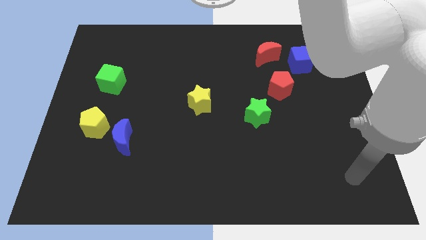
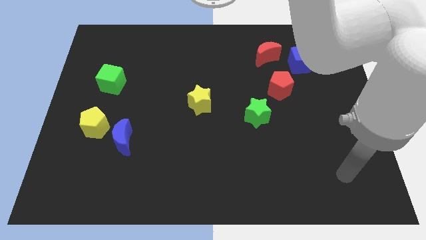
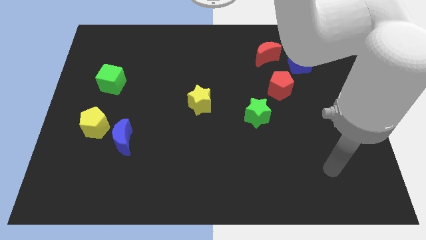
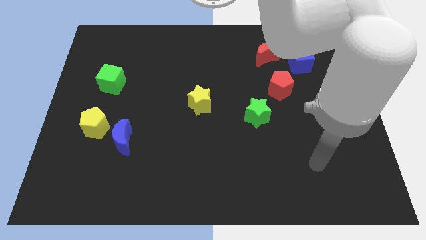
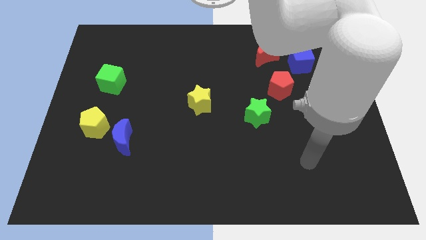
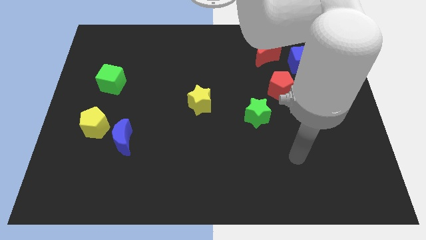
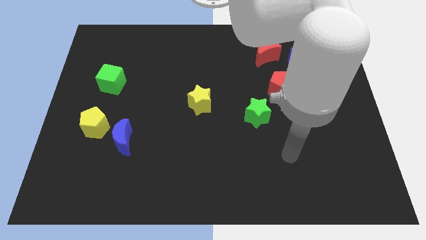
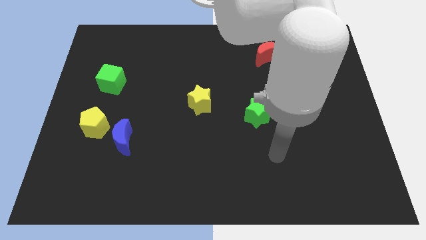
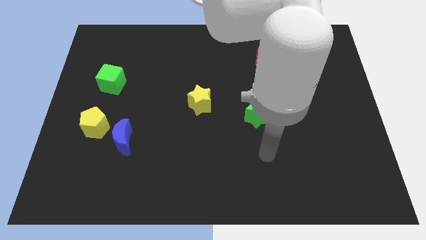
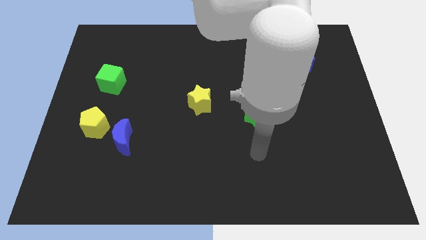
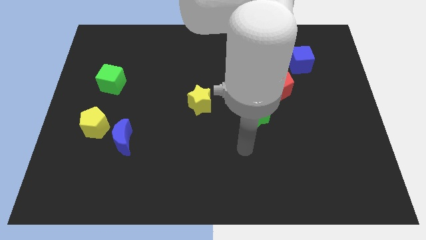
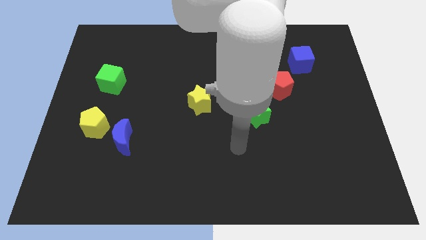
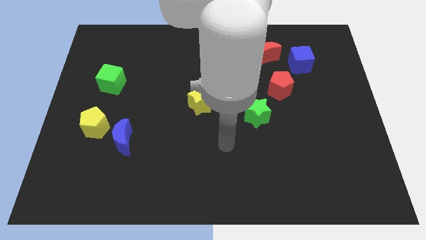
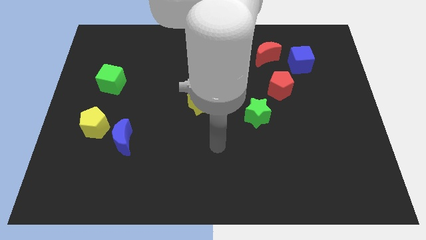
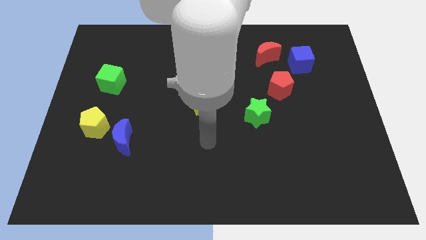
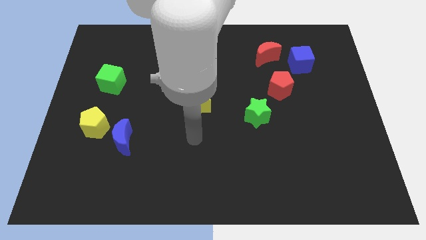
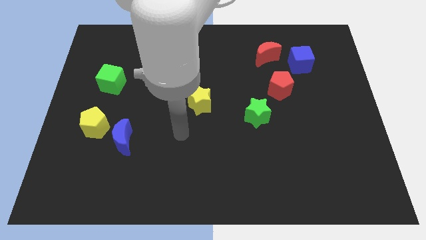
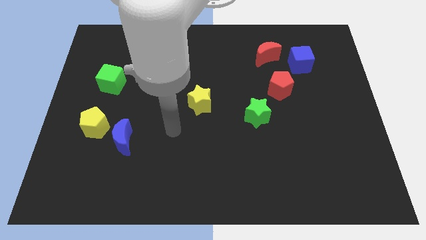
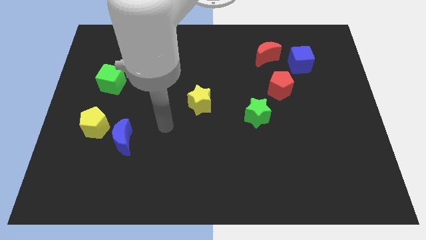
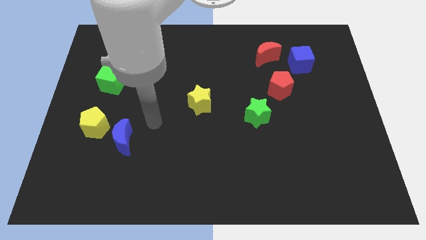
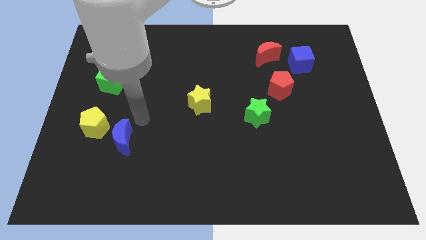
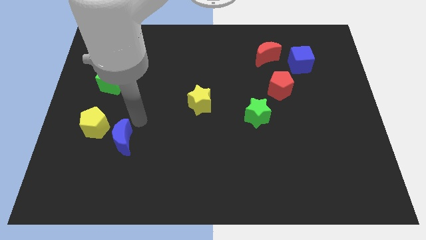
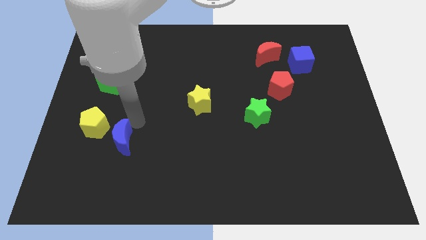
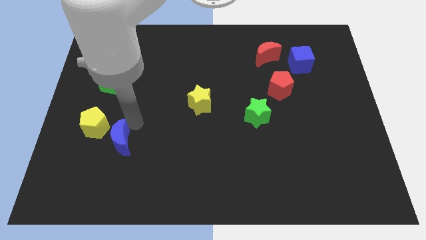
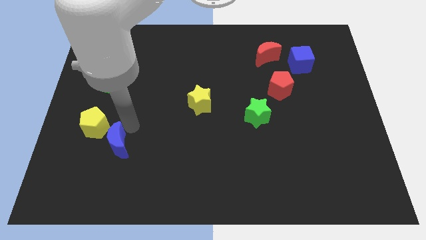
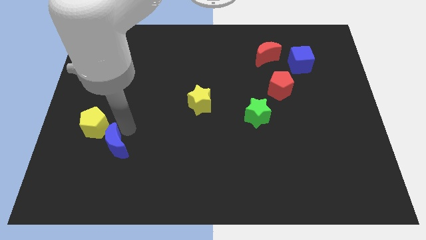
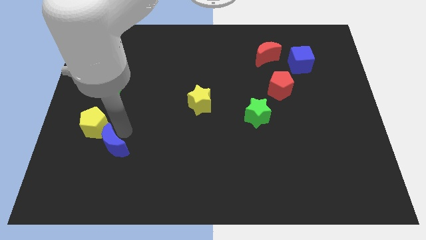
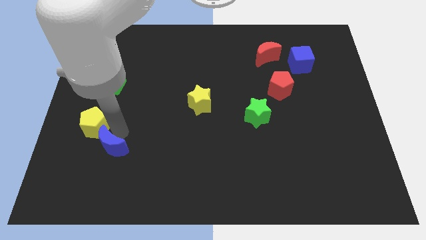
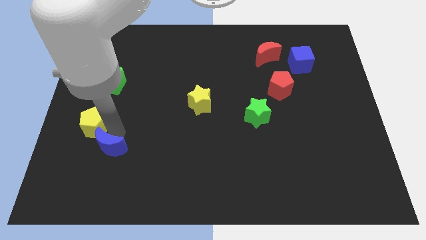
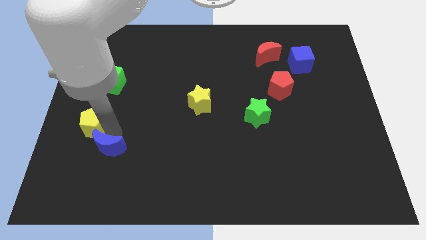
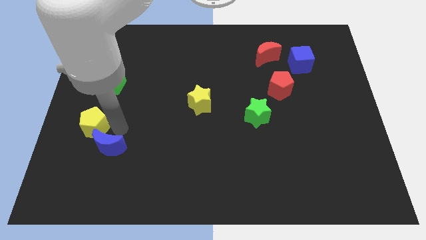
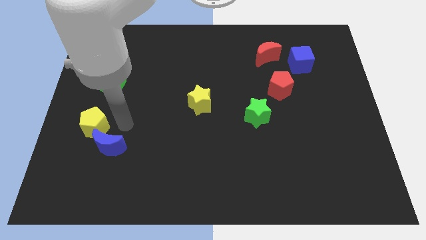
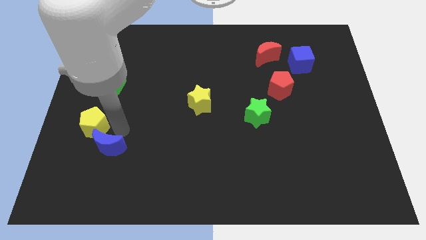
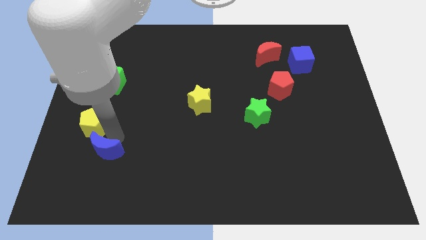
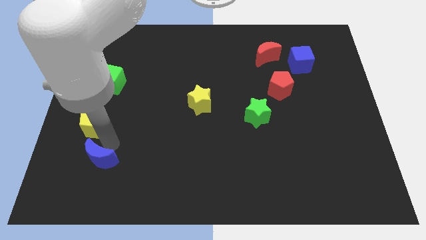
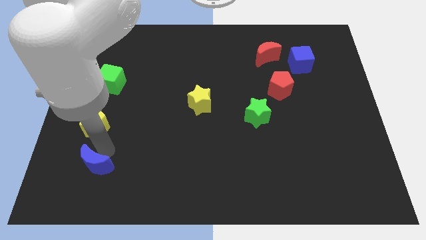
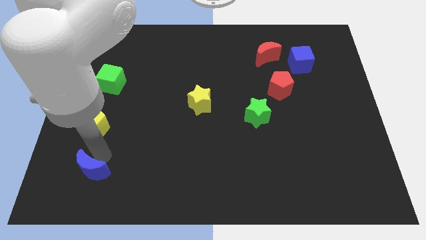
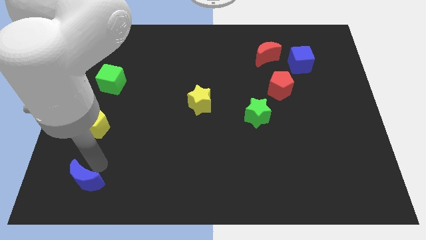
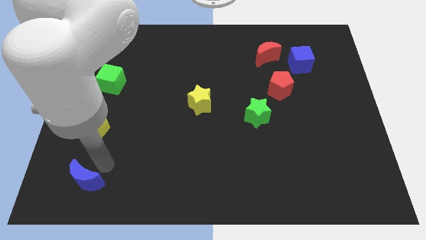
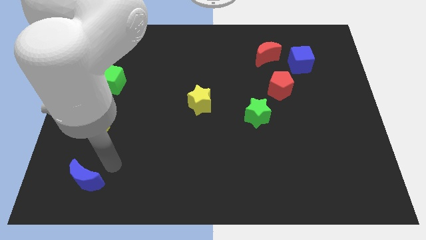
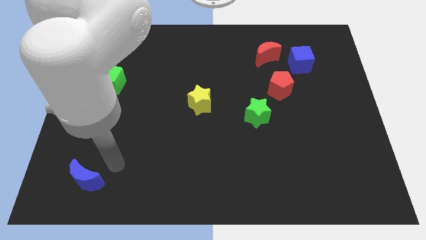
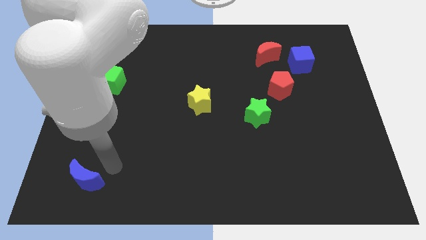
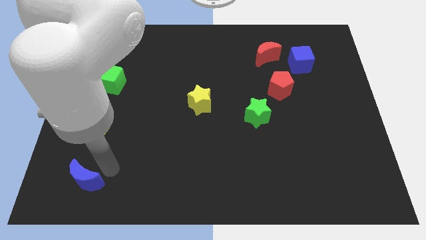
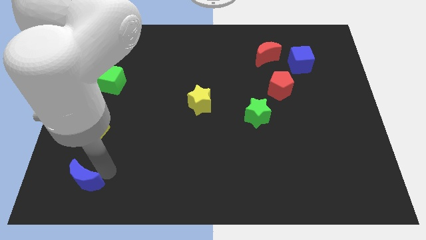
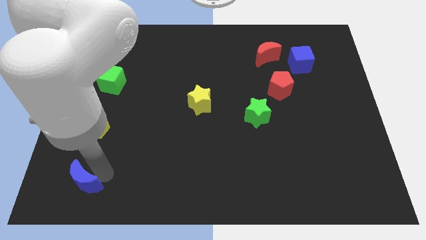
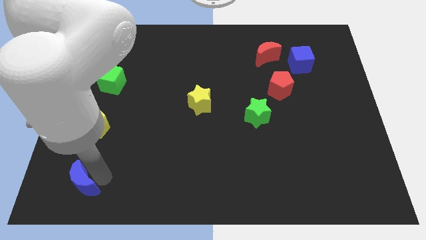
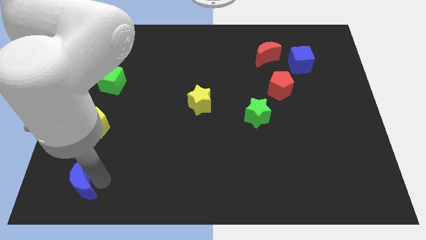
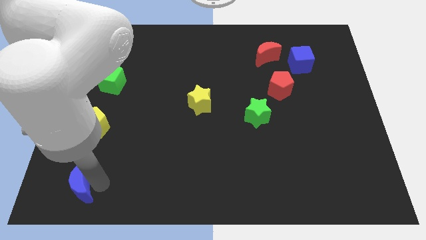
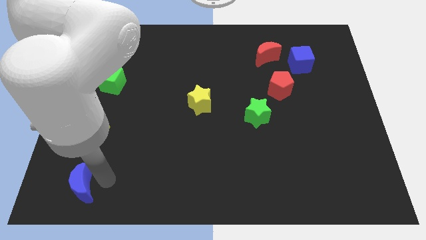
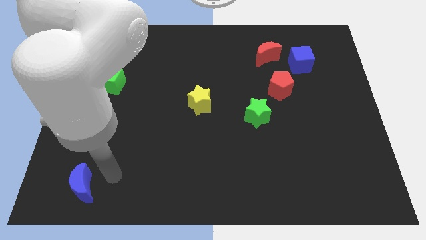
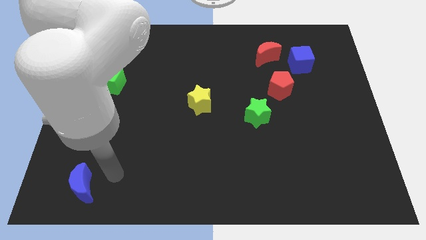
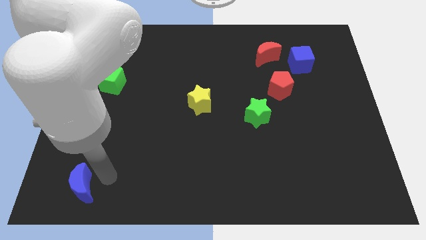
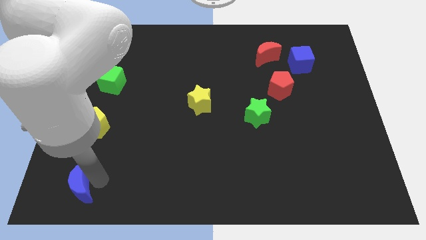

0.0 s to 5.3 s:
move the blue moon to the bottom left corner
